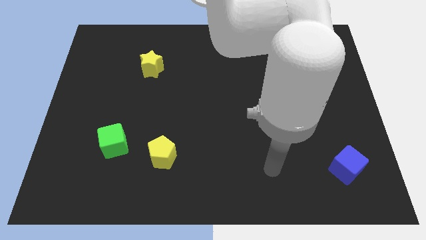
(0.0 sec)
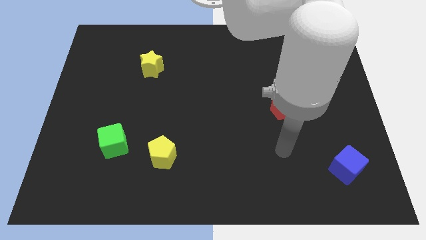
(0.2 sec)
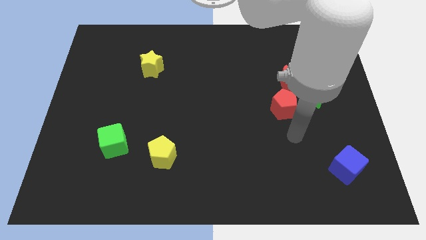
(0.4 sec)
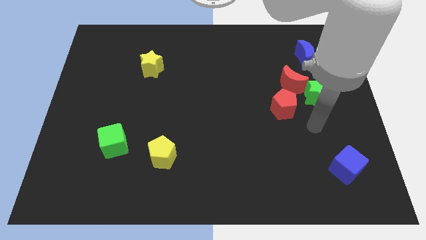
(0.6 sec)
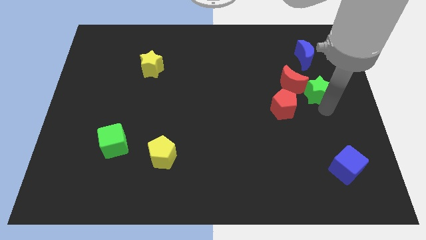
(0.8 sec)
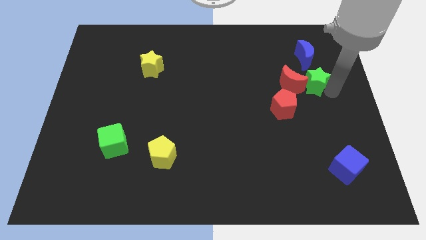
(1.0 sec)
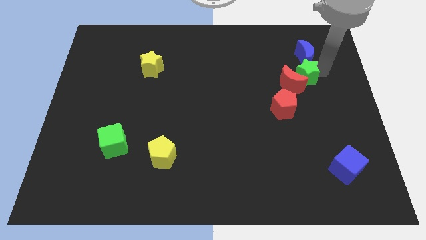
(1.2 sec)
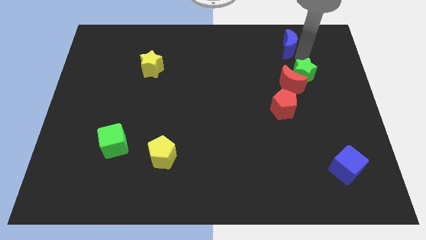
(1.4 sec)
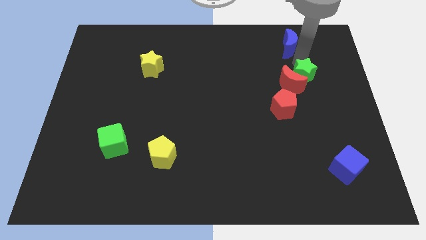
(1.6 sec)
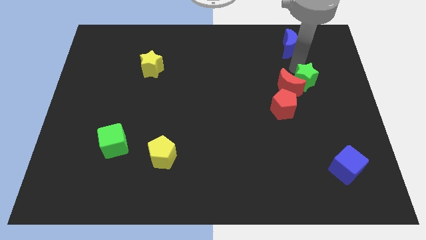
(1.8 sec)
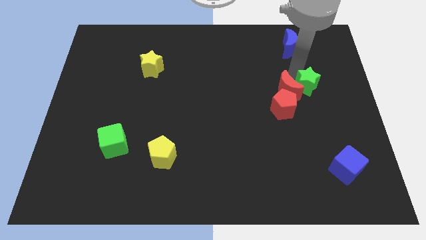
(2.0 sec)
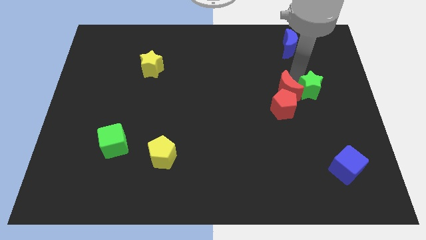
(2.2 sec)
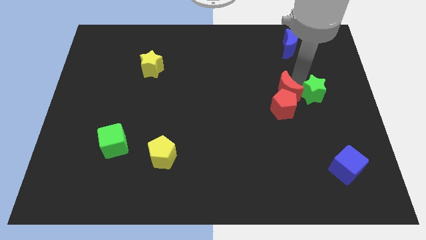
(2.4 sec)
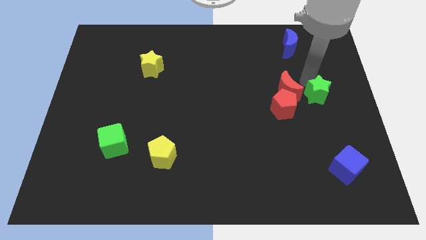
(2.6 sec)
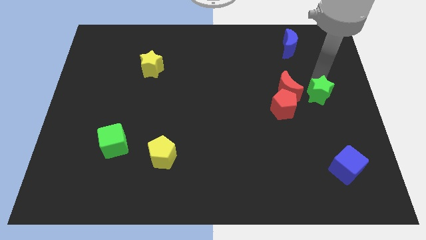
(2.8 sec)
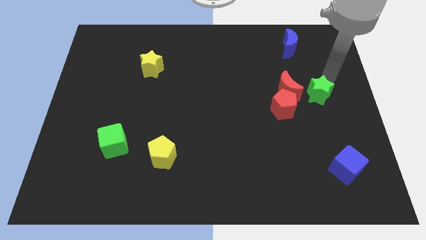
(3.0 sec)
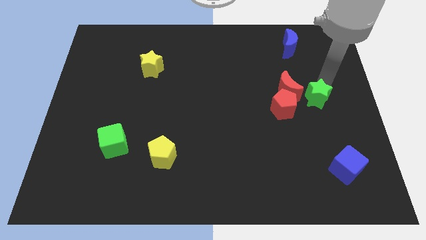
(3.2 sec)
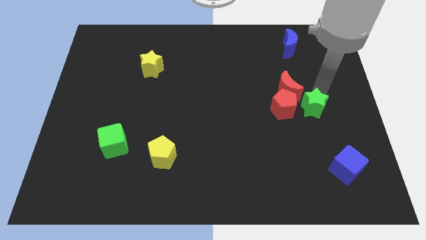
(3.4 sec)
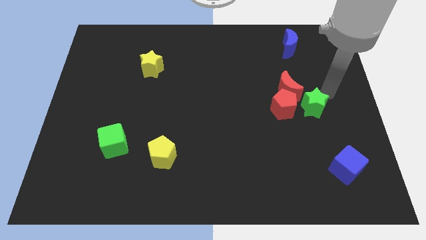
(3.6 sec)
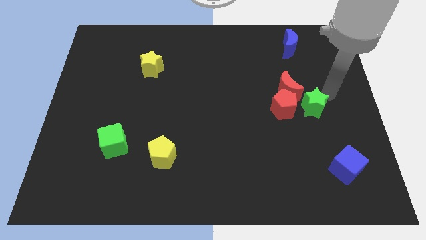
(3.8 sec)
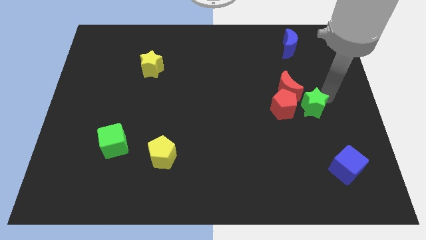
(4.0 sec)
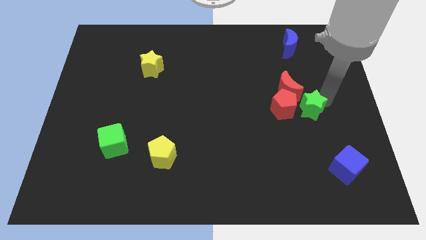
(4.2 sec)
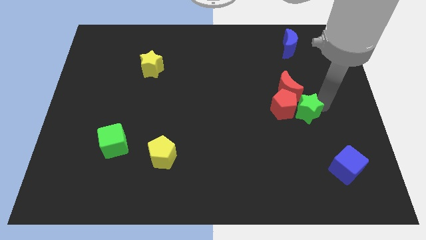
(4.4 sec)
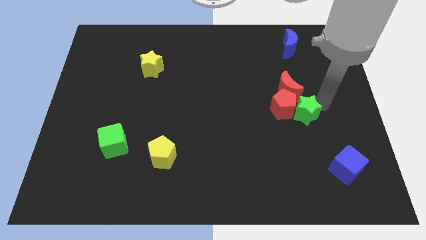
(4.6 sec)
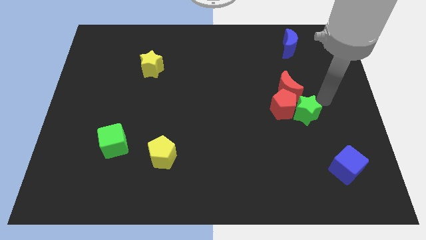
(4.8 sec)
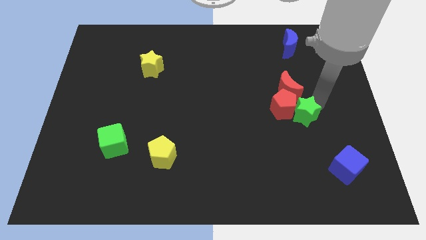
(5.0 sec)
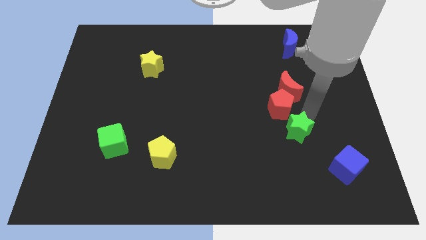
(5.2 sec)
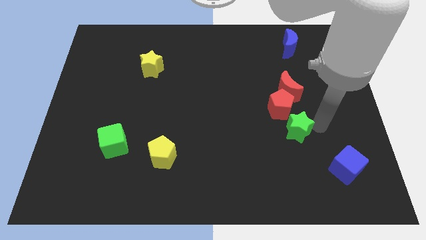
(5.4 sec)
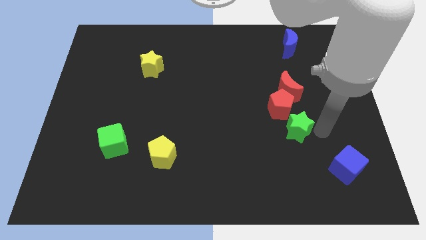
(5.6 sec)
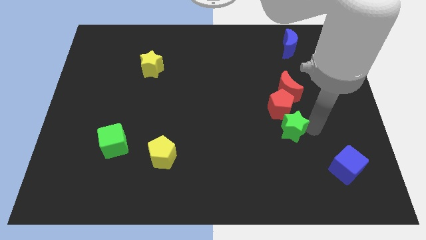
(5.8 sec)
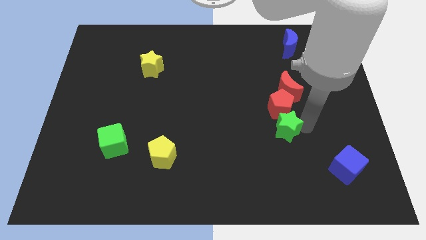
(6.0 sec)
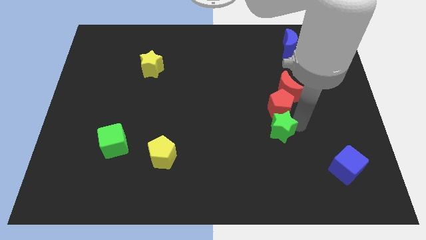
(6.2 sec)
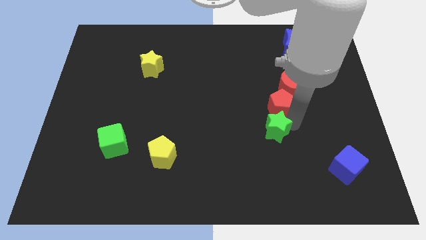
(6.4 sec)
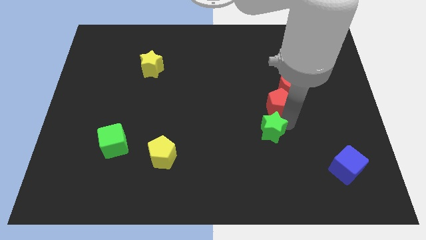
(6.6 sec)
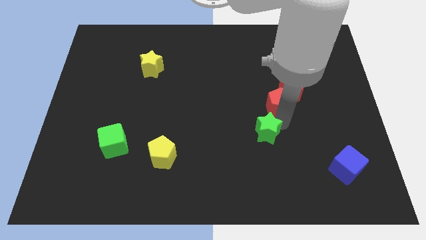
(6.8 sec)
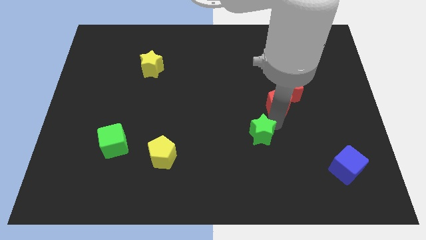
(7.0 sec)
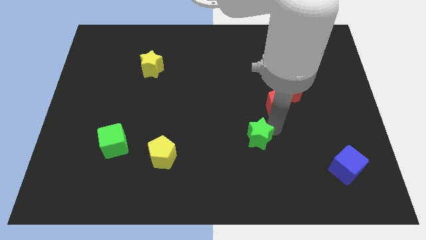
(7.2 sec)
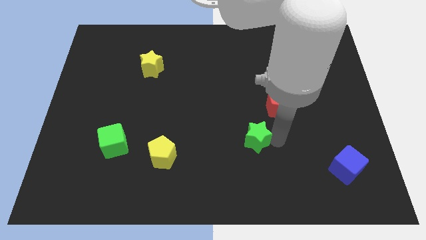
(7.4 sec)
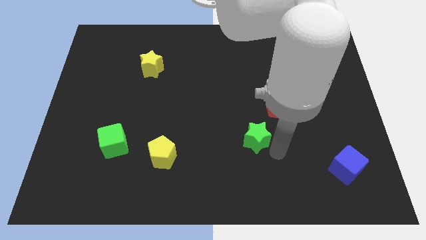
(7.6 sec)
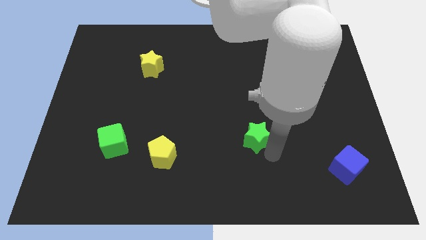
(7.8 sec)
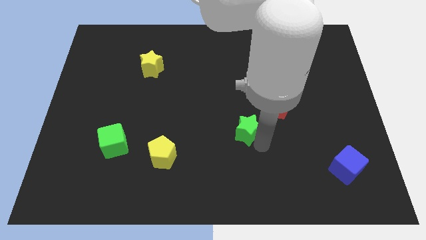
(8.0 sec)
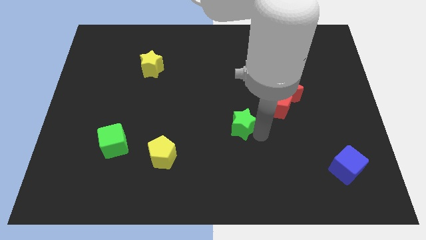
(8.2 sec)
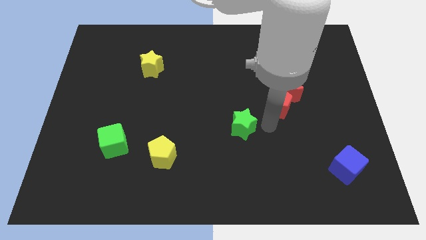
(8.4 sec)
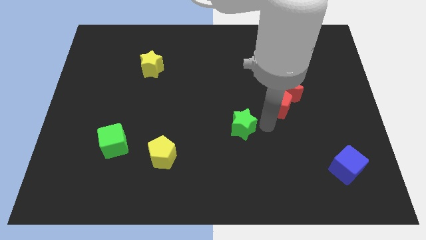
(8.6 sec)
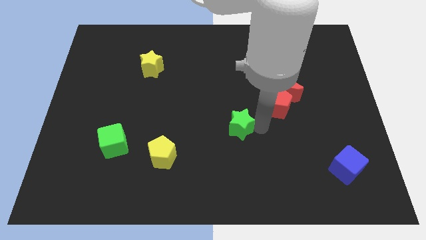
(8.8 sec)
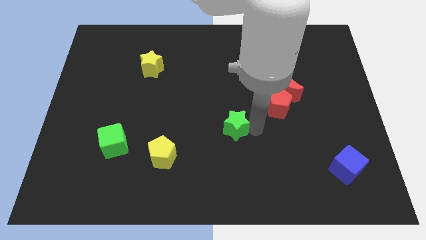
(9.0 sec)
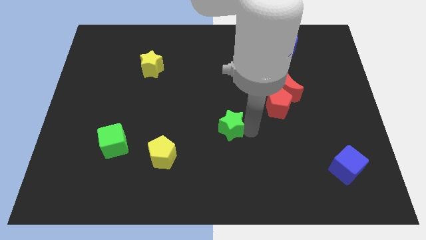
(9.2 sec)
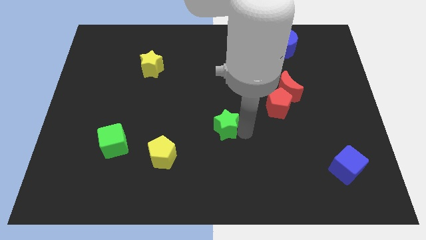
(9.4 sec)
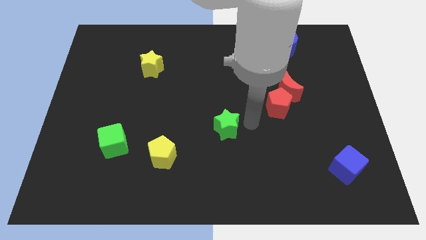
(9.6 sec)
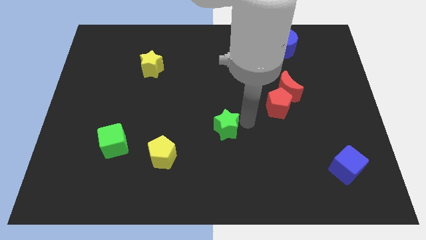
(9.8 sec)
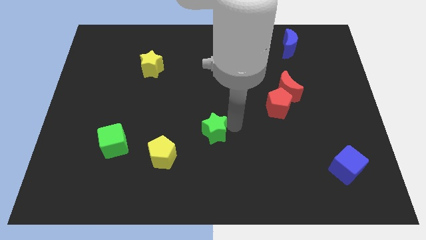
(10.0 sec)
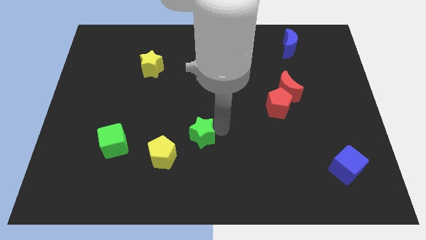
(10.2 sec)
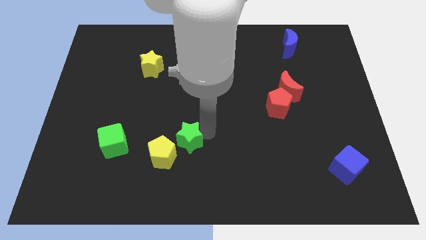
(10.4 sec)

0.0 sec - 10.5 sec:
put the green star just right of the green cube

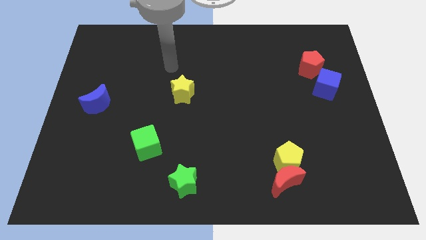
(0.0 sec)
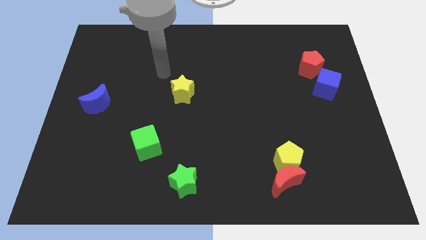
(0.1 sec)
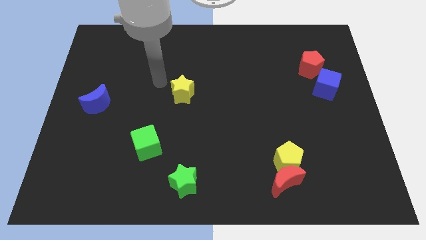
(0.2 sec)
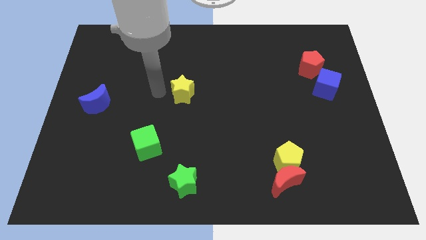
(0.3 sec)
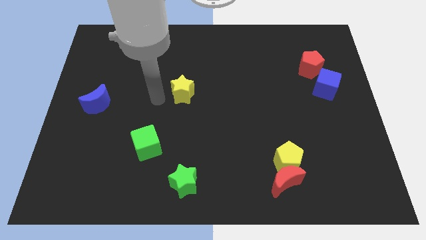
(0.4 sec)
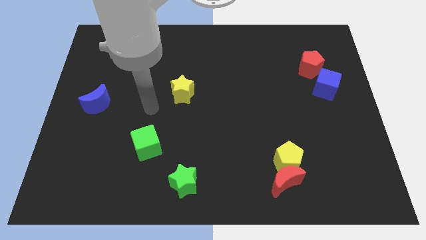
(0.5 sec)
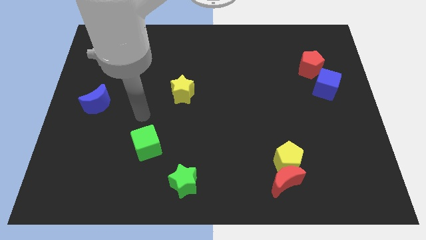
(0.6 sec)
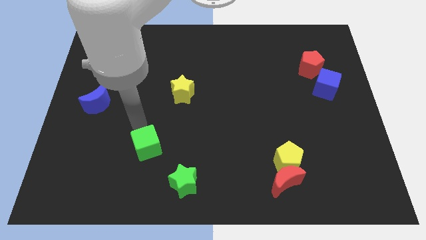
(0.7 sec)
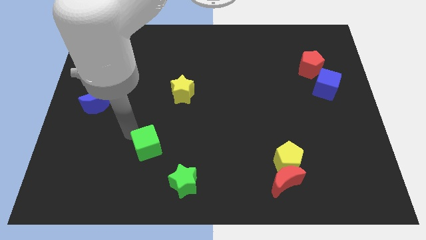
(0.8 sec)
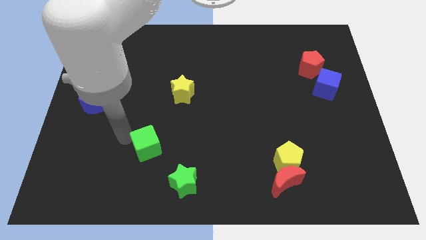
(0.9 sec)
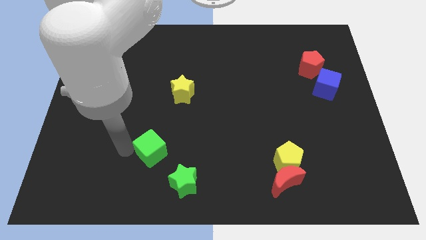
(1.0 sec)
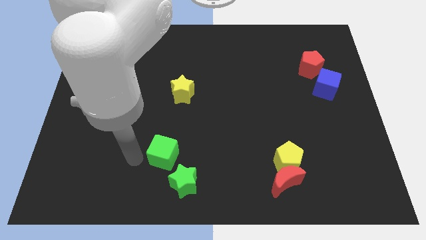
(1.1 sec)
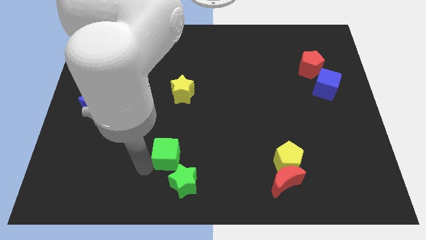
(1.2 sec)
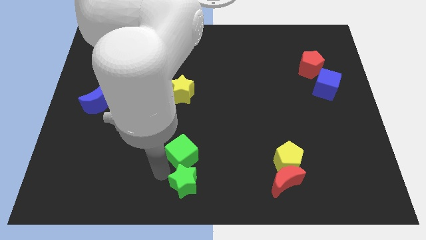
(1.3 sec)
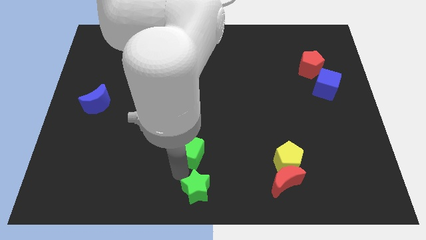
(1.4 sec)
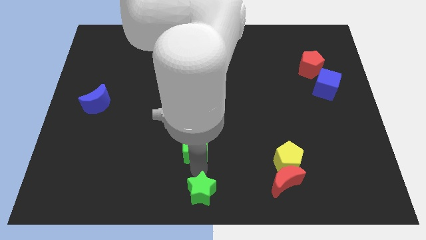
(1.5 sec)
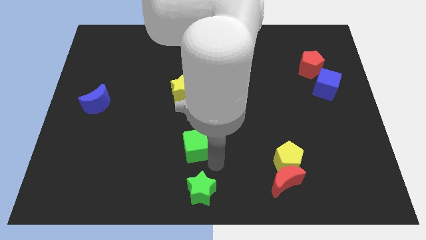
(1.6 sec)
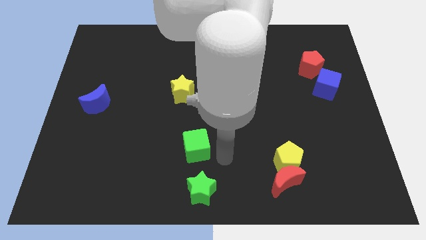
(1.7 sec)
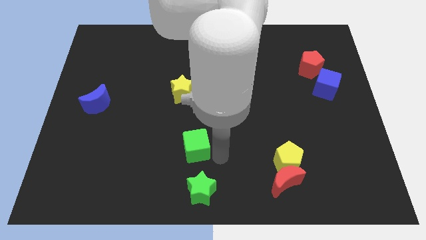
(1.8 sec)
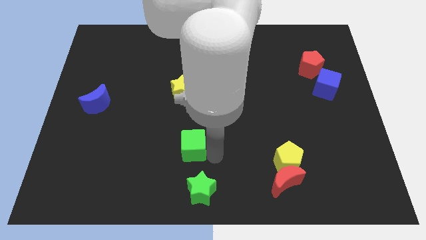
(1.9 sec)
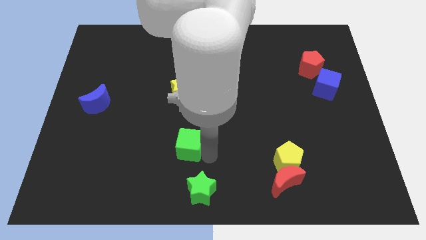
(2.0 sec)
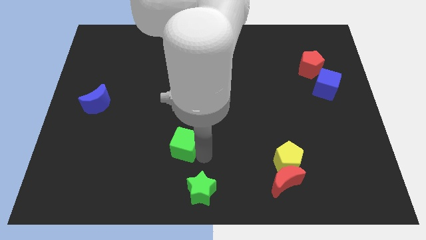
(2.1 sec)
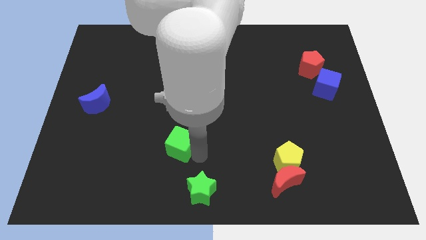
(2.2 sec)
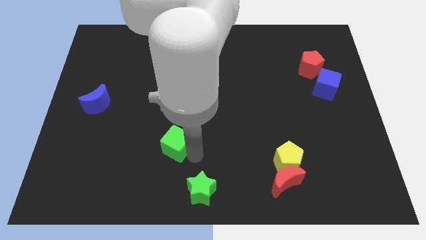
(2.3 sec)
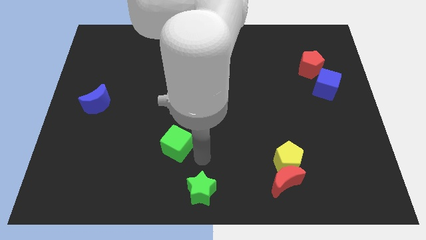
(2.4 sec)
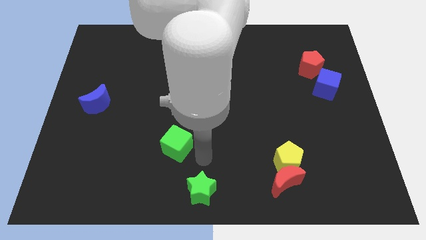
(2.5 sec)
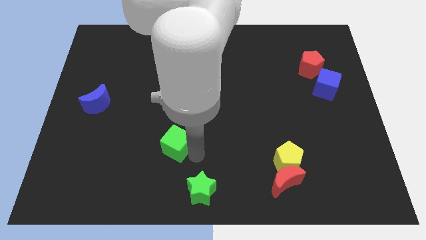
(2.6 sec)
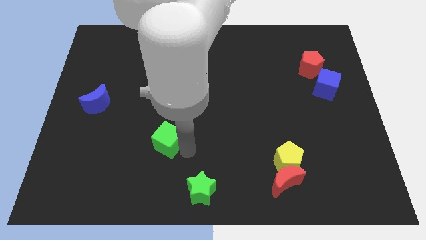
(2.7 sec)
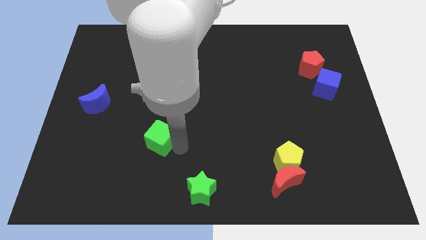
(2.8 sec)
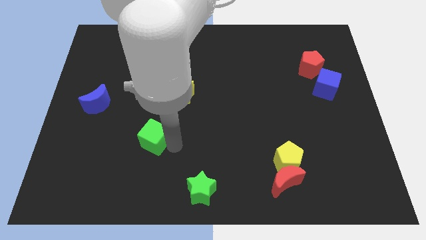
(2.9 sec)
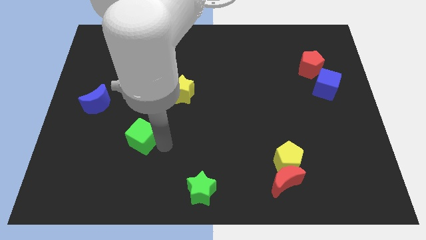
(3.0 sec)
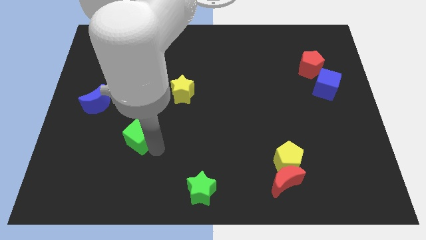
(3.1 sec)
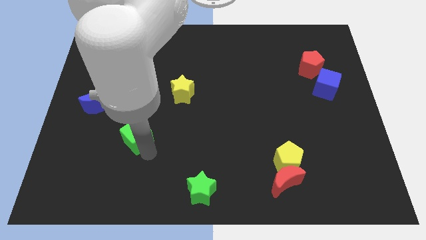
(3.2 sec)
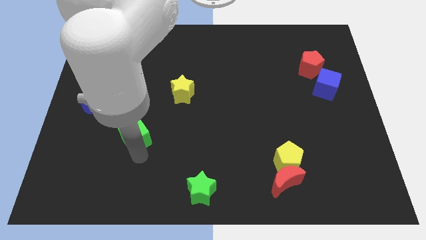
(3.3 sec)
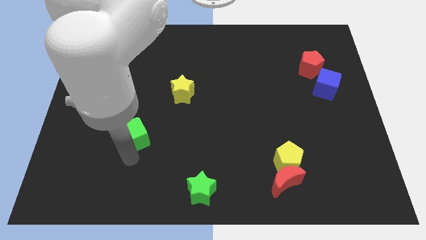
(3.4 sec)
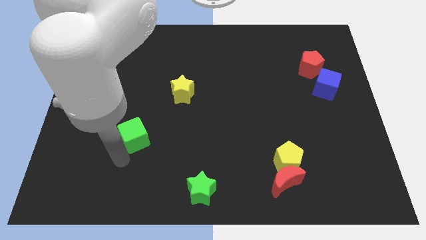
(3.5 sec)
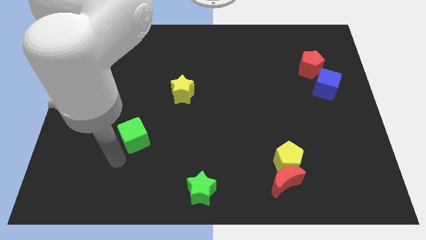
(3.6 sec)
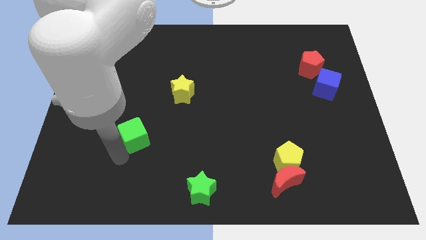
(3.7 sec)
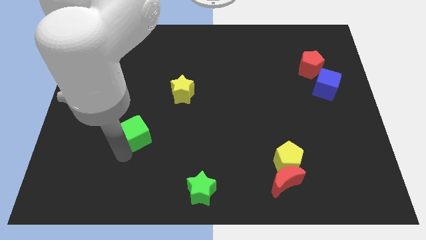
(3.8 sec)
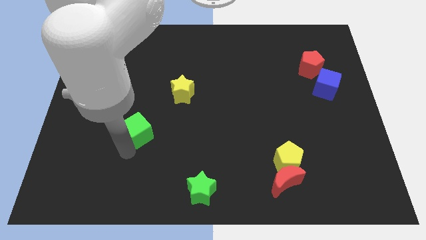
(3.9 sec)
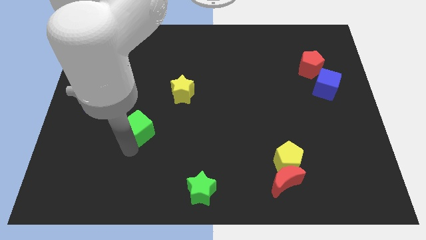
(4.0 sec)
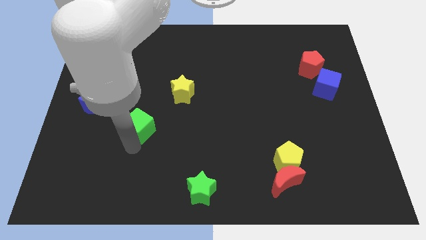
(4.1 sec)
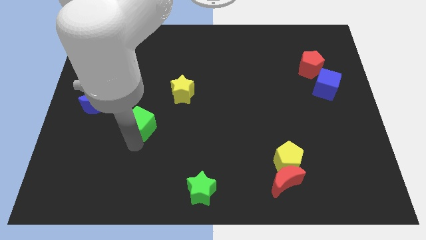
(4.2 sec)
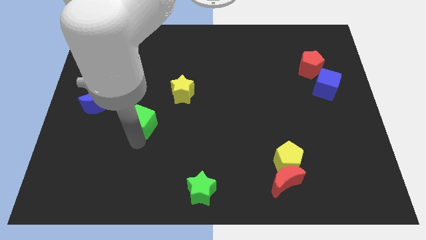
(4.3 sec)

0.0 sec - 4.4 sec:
move the green cube to the bottom left of the yellow star
